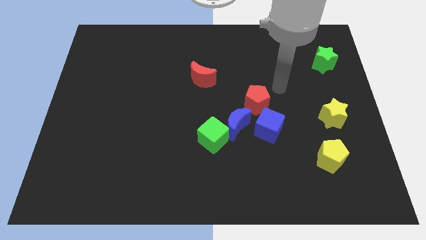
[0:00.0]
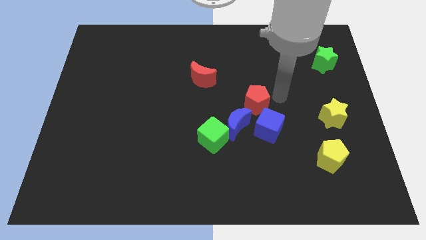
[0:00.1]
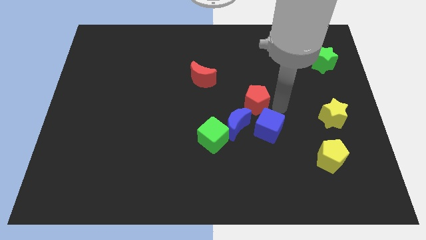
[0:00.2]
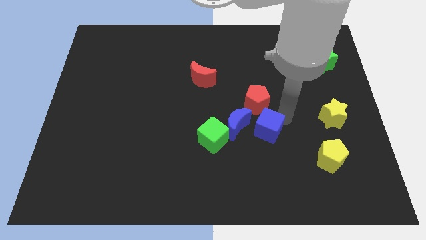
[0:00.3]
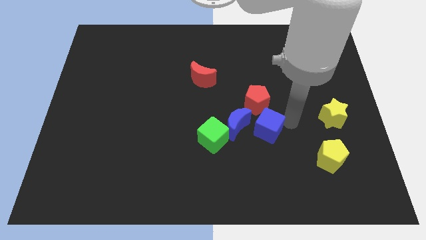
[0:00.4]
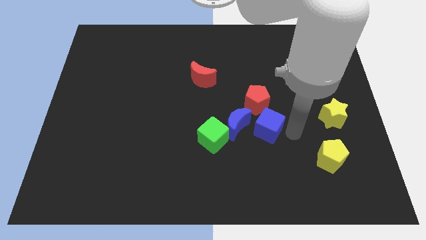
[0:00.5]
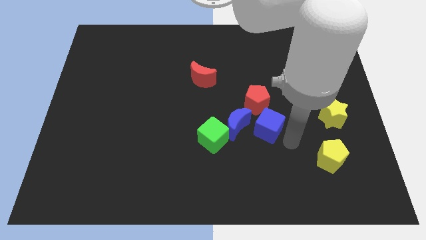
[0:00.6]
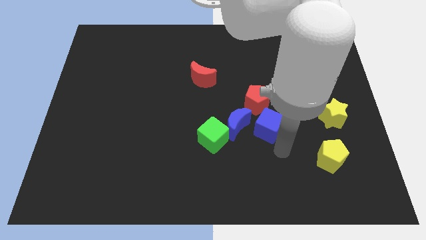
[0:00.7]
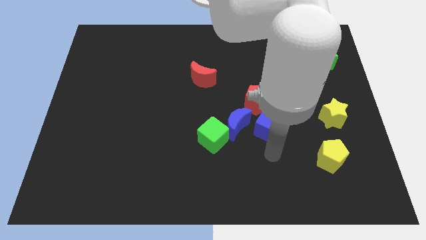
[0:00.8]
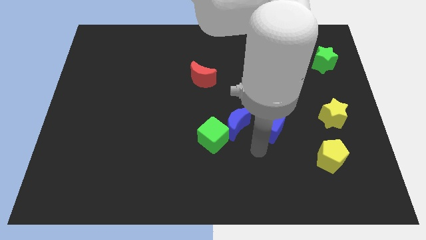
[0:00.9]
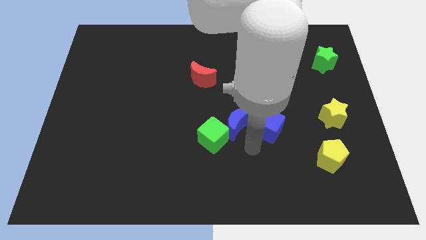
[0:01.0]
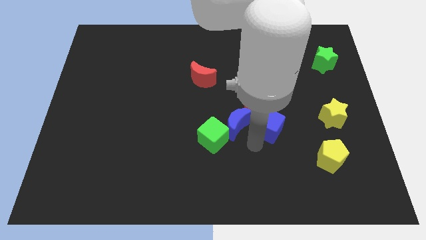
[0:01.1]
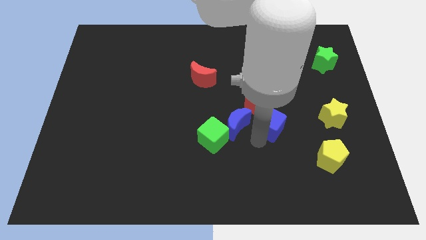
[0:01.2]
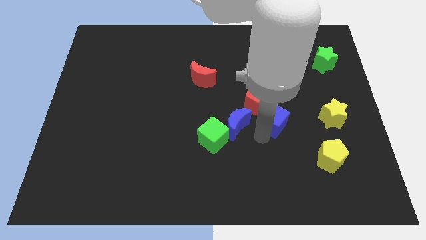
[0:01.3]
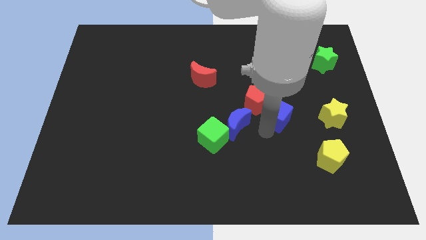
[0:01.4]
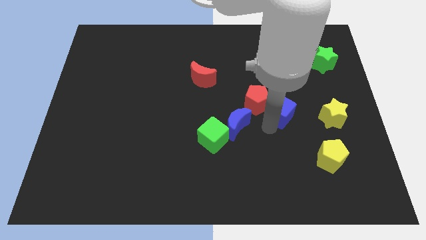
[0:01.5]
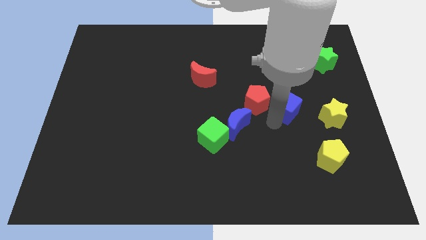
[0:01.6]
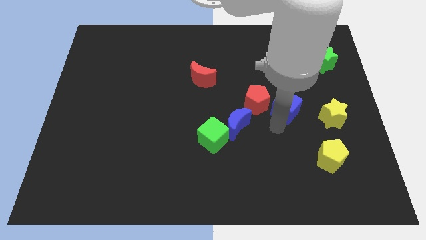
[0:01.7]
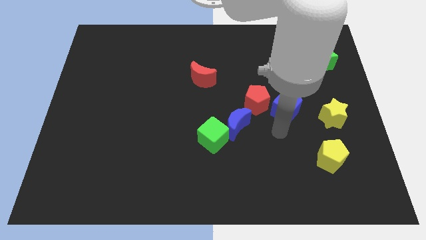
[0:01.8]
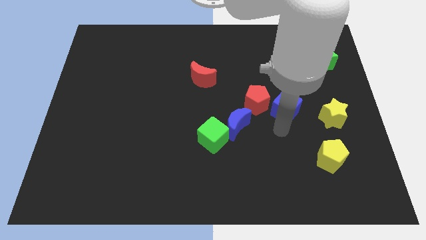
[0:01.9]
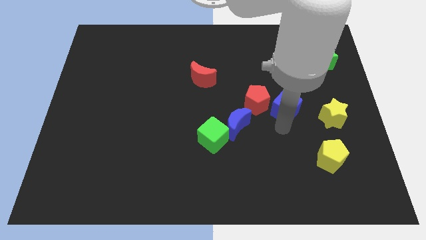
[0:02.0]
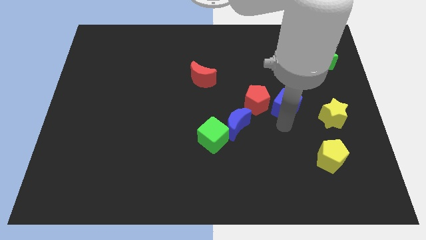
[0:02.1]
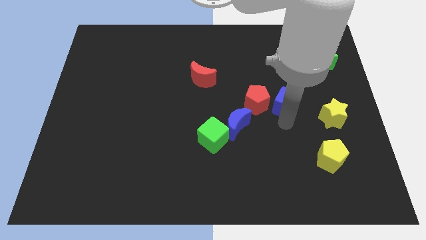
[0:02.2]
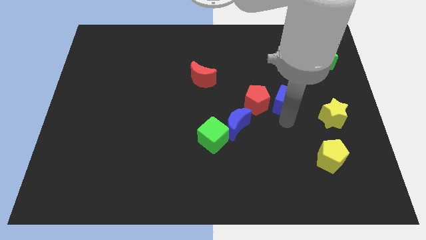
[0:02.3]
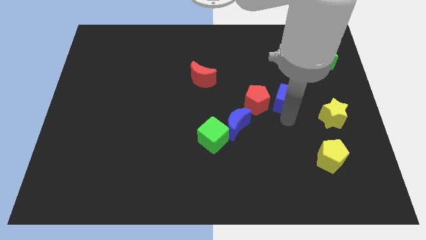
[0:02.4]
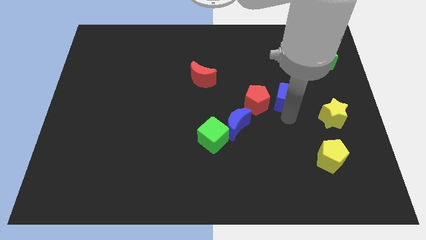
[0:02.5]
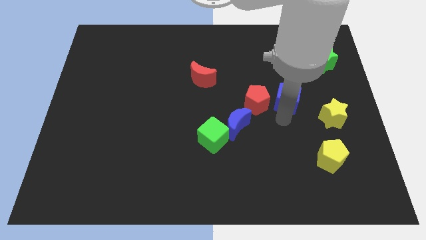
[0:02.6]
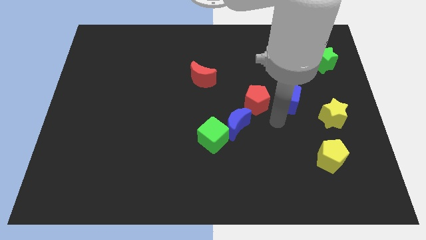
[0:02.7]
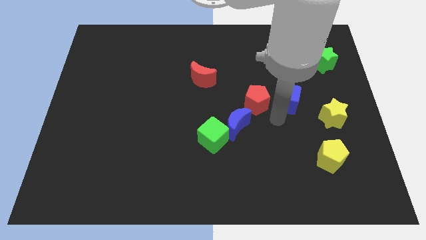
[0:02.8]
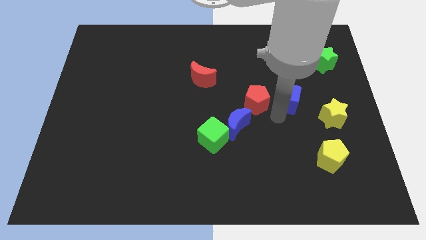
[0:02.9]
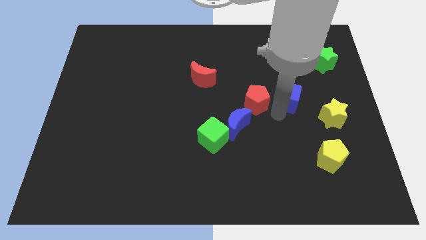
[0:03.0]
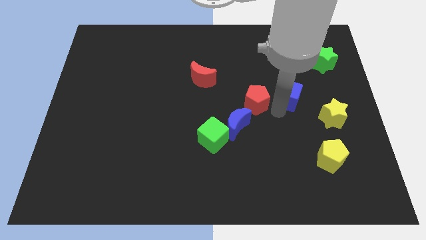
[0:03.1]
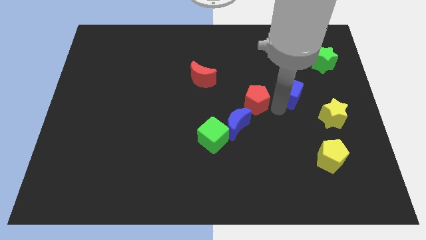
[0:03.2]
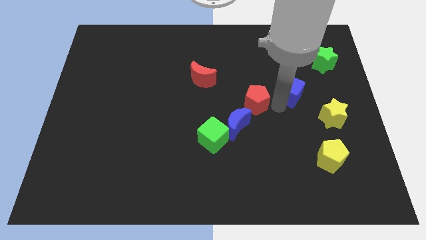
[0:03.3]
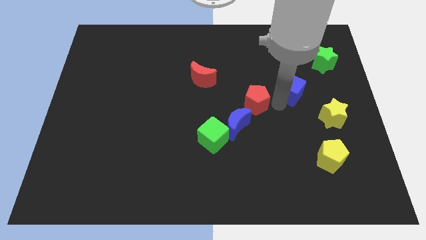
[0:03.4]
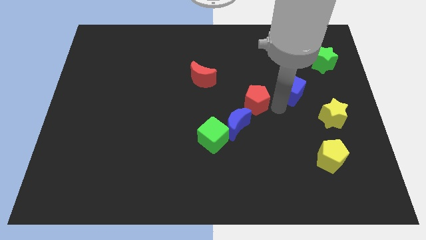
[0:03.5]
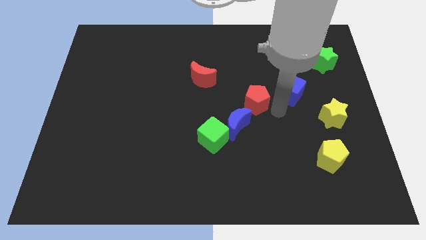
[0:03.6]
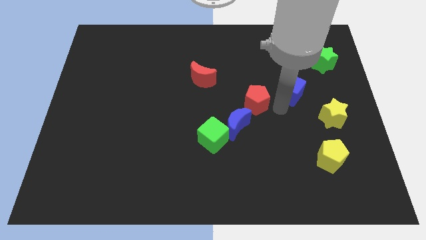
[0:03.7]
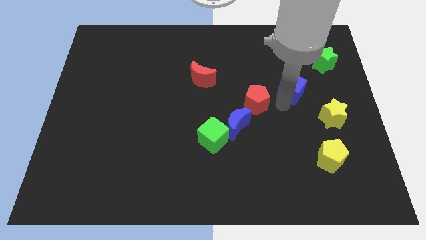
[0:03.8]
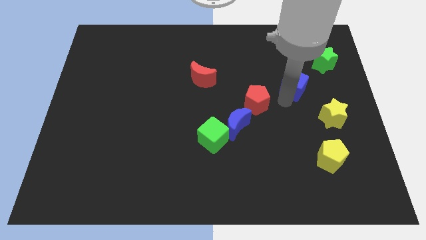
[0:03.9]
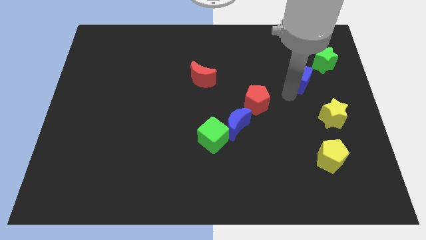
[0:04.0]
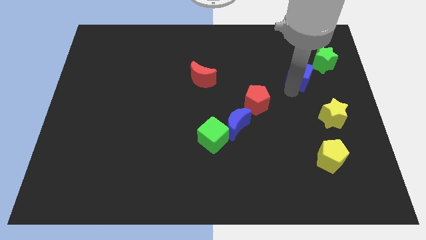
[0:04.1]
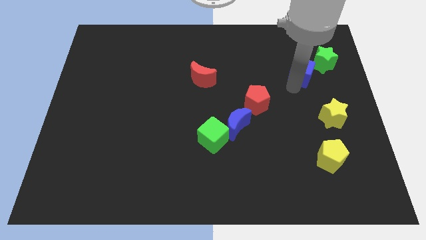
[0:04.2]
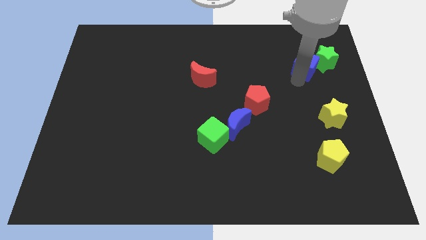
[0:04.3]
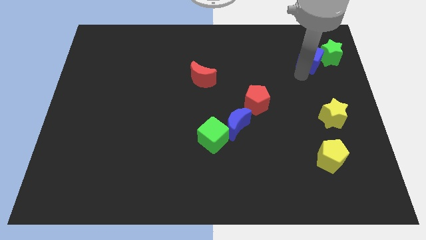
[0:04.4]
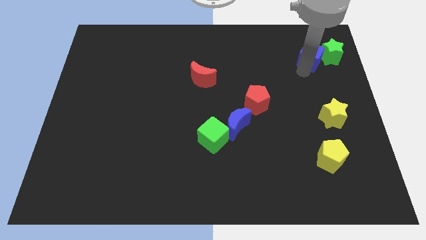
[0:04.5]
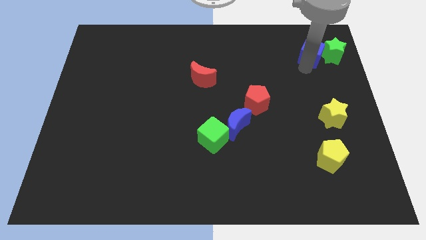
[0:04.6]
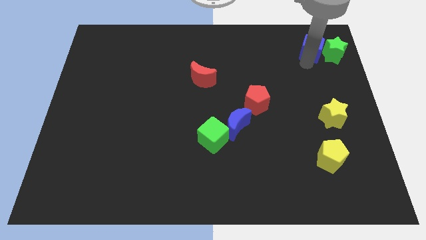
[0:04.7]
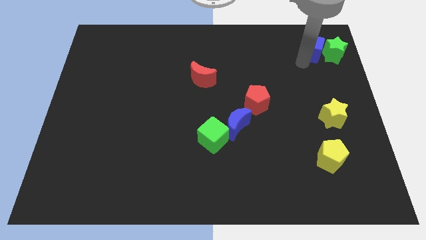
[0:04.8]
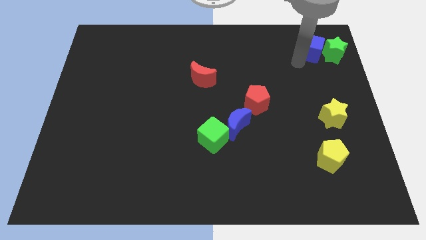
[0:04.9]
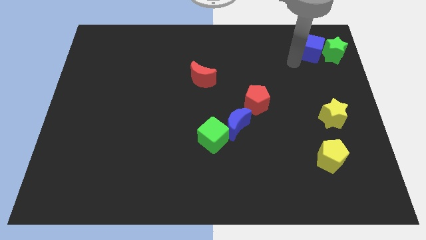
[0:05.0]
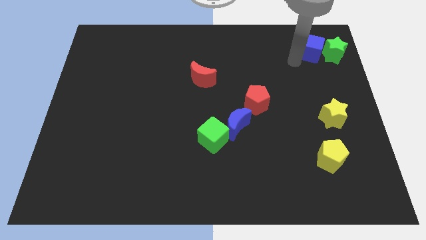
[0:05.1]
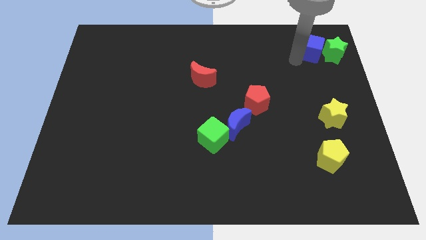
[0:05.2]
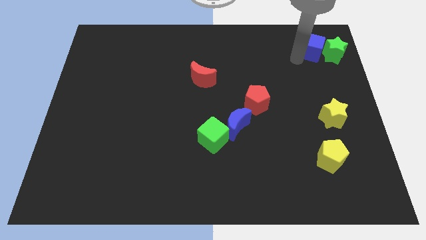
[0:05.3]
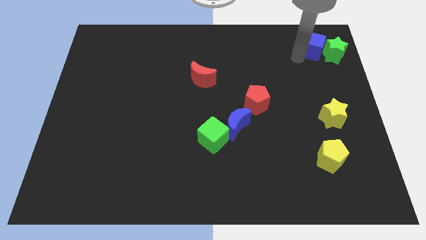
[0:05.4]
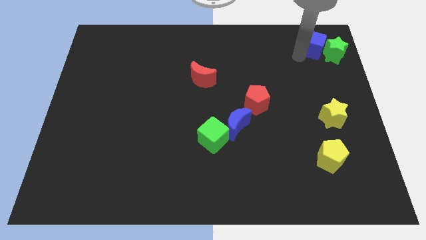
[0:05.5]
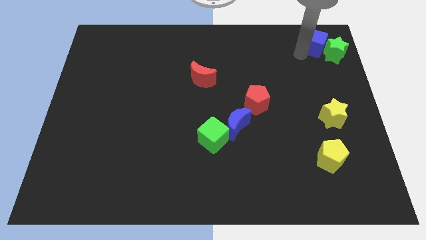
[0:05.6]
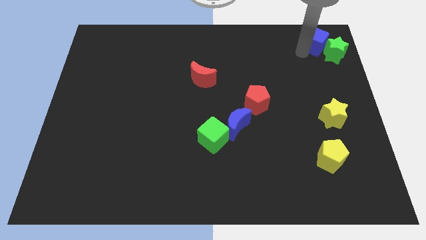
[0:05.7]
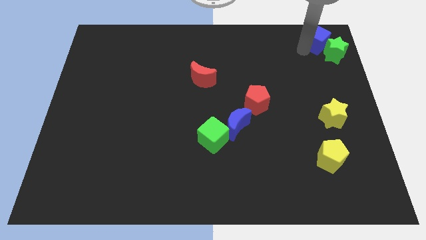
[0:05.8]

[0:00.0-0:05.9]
put the blue cube to the top right of the board

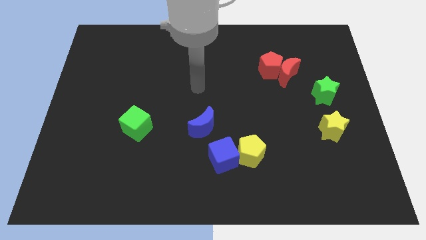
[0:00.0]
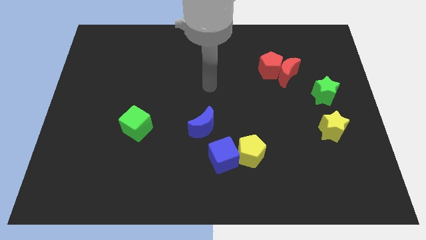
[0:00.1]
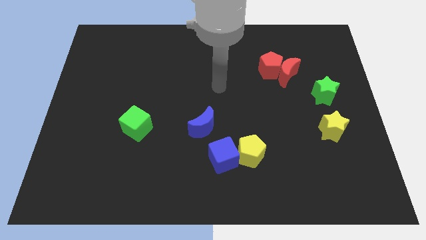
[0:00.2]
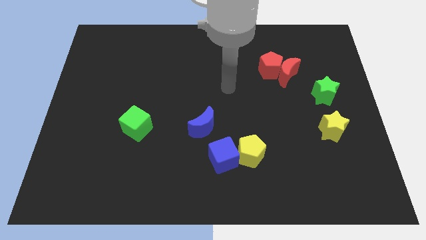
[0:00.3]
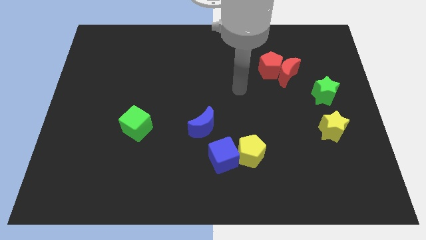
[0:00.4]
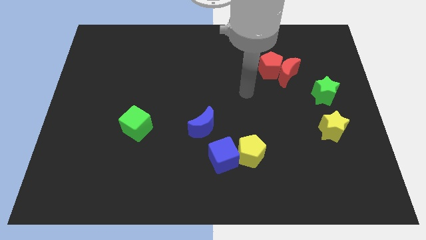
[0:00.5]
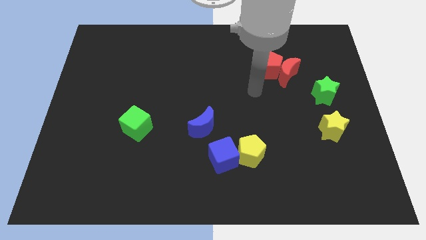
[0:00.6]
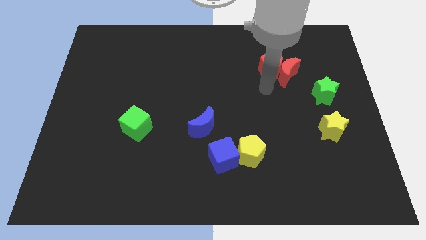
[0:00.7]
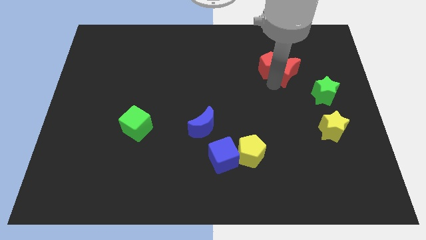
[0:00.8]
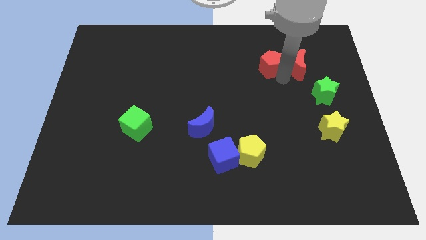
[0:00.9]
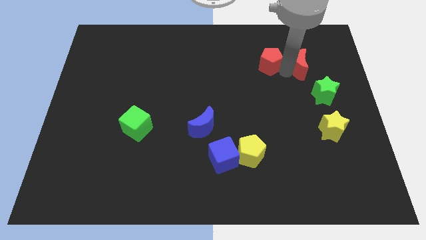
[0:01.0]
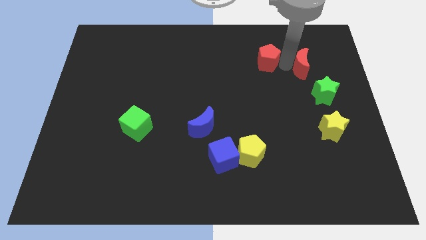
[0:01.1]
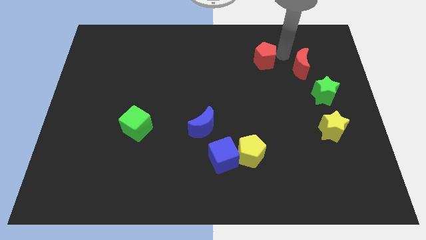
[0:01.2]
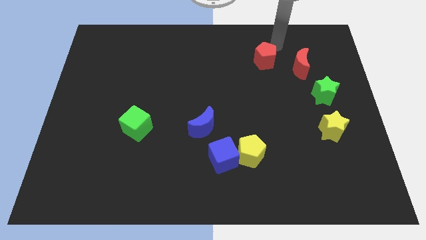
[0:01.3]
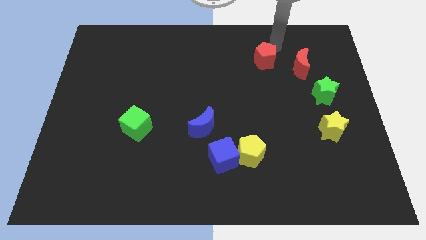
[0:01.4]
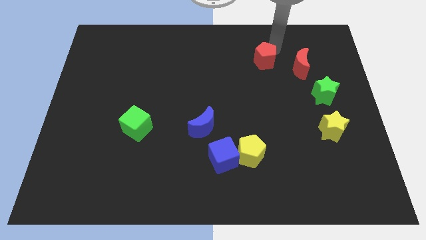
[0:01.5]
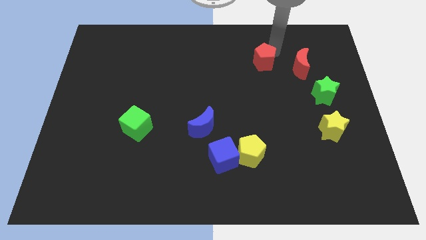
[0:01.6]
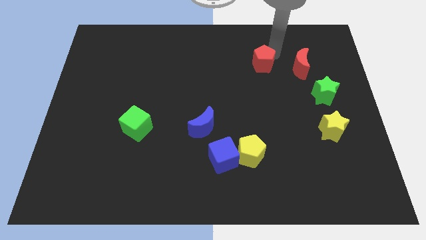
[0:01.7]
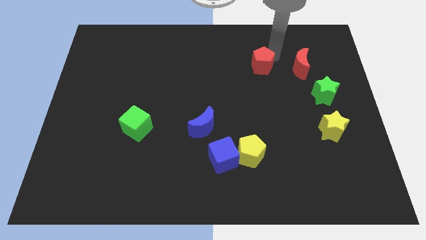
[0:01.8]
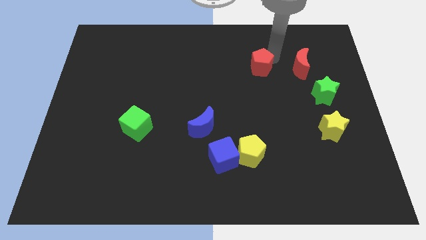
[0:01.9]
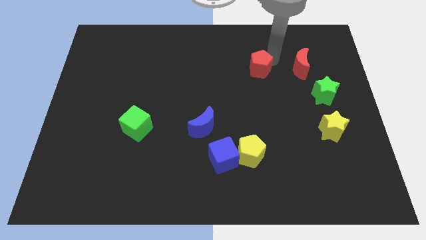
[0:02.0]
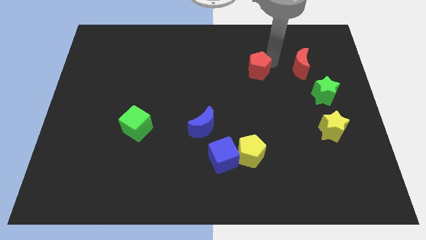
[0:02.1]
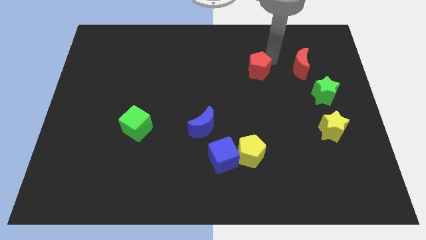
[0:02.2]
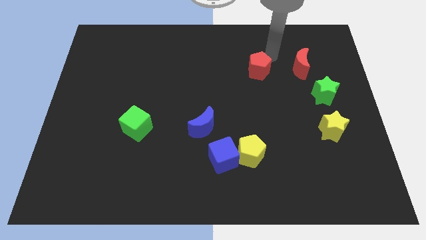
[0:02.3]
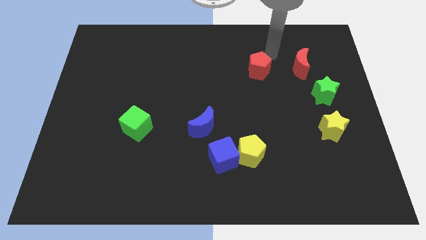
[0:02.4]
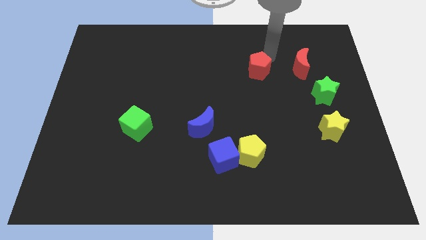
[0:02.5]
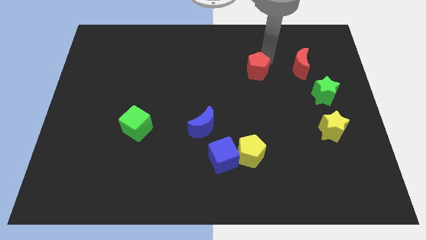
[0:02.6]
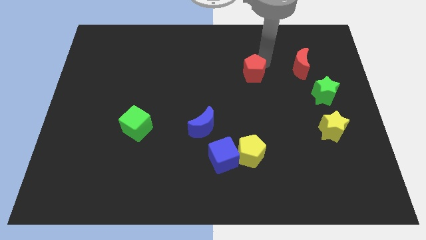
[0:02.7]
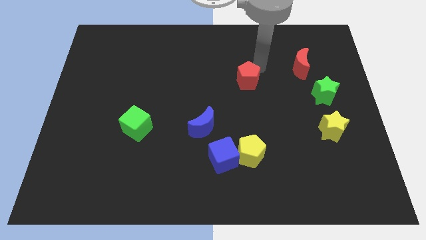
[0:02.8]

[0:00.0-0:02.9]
push the red pentagon to the middle
